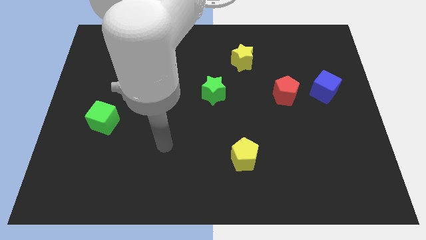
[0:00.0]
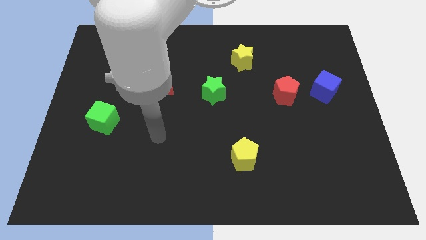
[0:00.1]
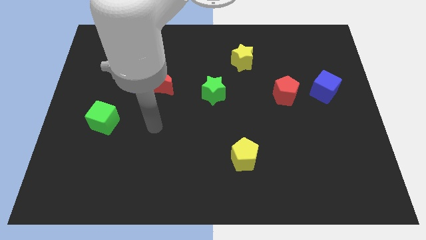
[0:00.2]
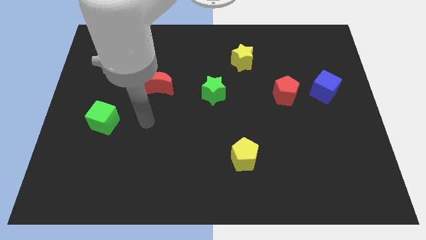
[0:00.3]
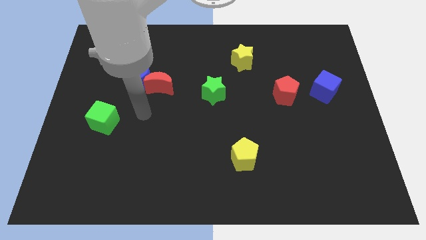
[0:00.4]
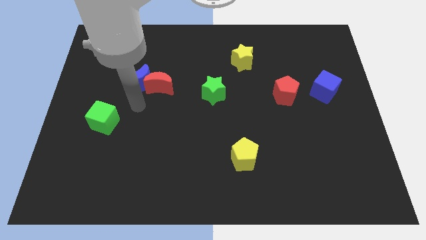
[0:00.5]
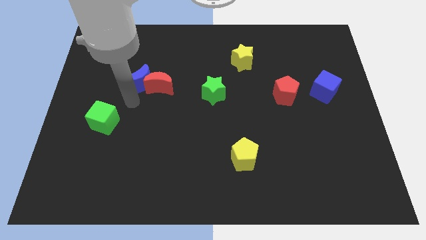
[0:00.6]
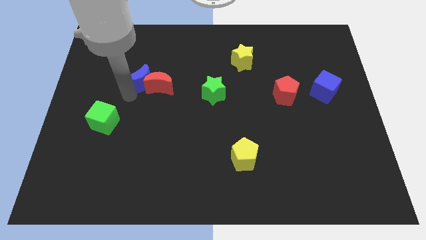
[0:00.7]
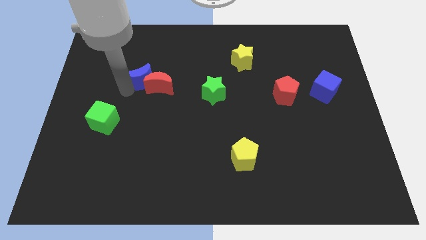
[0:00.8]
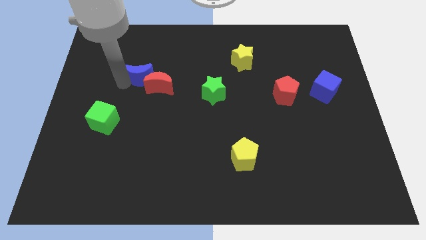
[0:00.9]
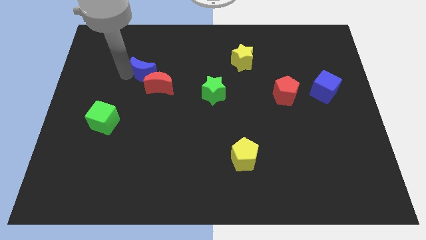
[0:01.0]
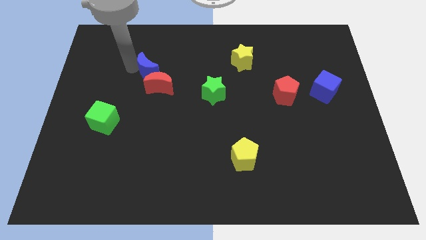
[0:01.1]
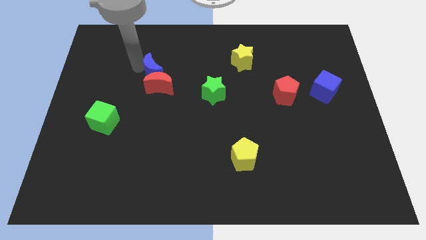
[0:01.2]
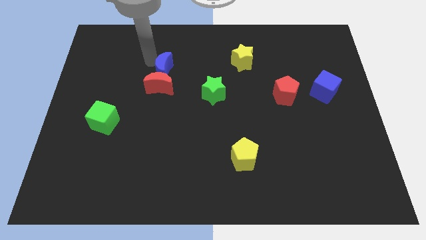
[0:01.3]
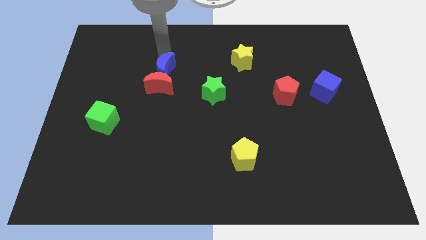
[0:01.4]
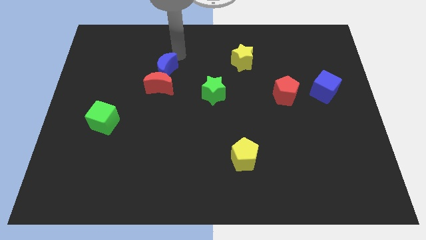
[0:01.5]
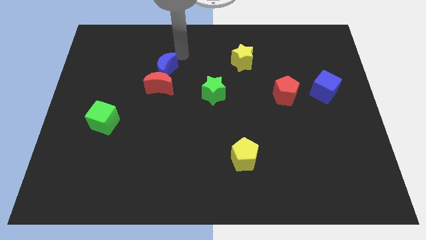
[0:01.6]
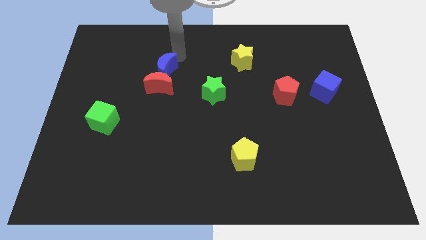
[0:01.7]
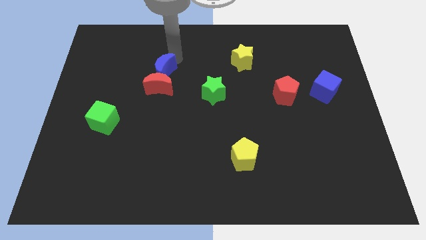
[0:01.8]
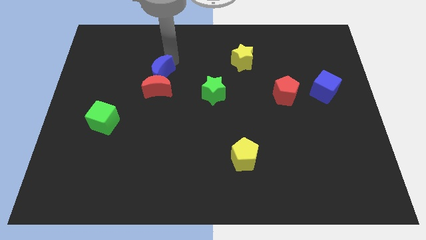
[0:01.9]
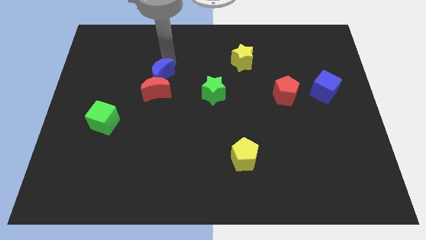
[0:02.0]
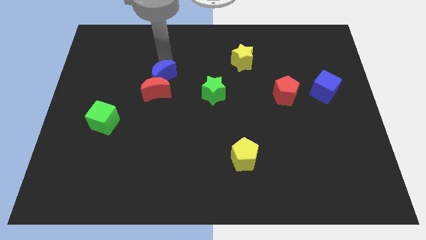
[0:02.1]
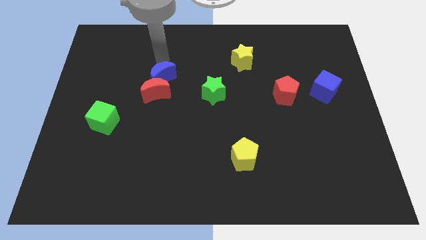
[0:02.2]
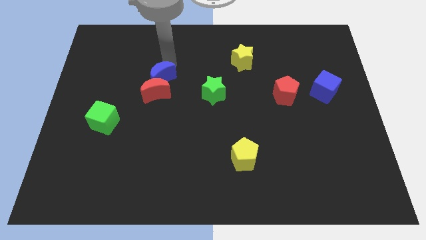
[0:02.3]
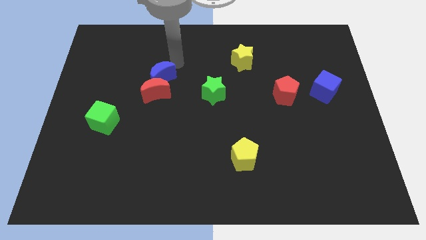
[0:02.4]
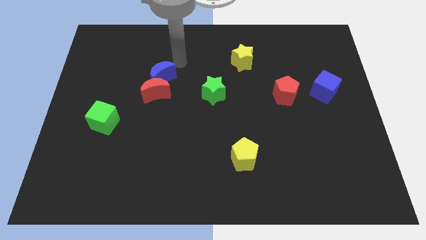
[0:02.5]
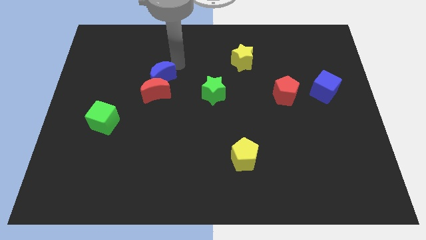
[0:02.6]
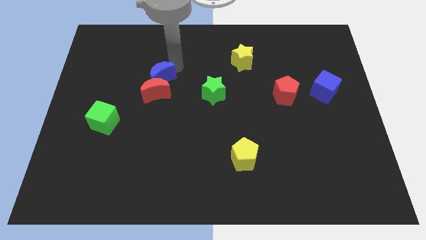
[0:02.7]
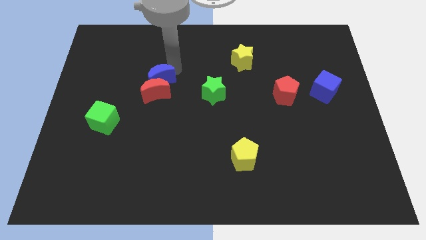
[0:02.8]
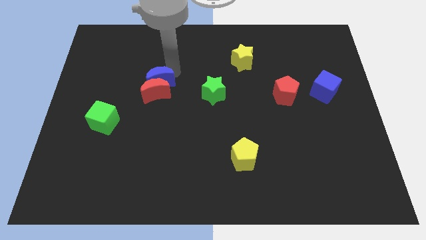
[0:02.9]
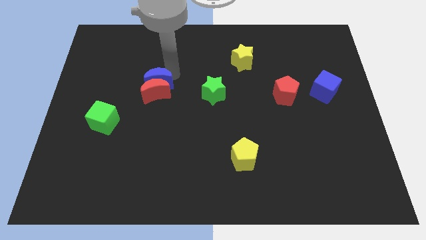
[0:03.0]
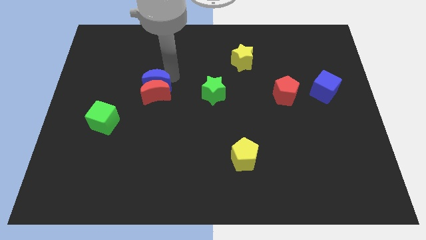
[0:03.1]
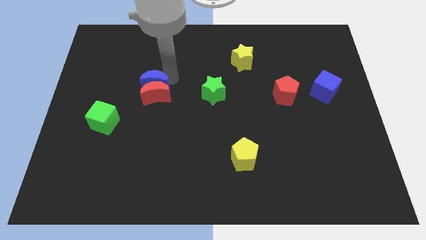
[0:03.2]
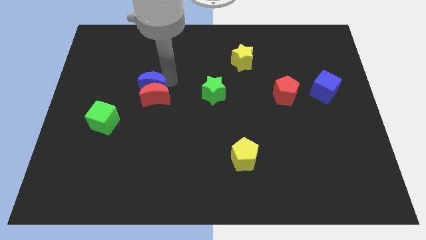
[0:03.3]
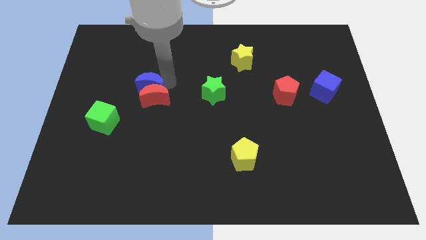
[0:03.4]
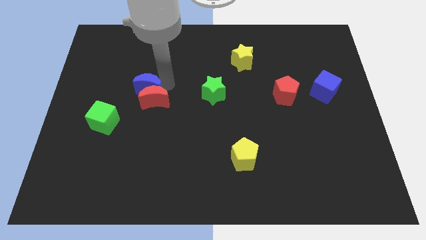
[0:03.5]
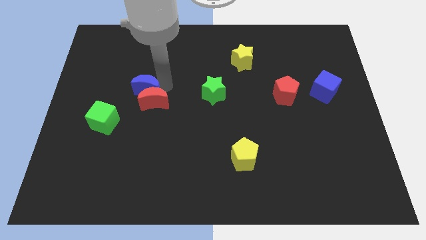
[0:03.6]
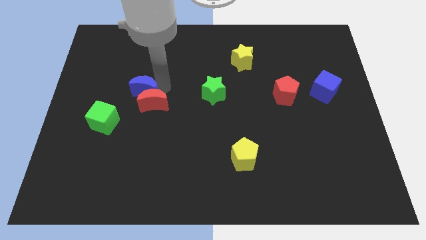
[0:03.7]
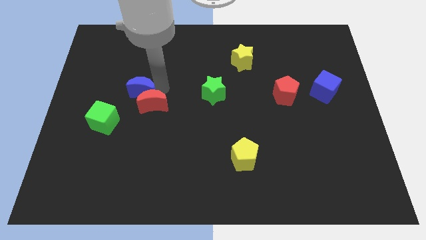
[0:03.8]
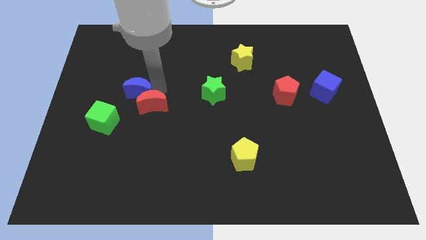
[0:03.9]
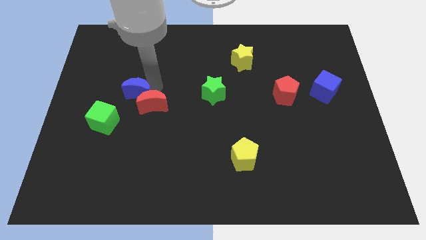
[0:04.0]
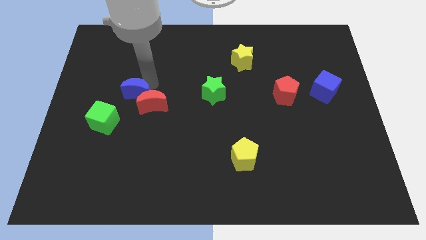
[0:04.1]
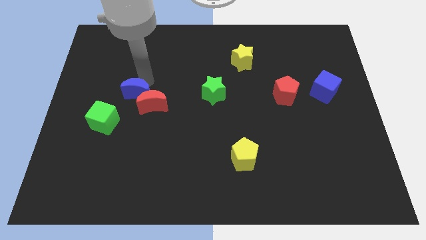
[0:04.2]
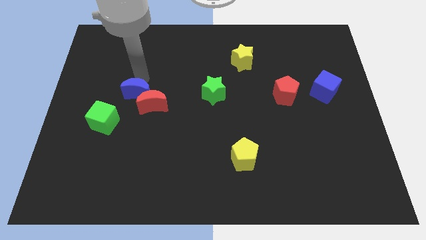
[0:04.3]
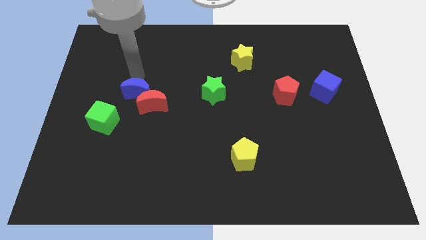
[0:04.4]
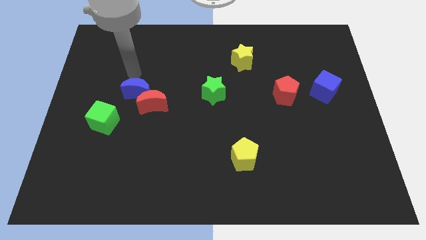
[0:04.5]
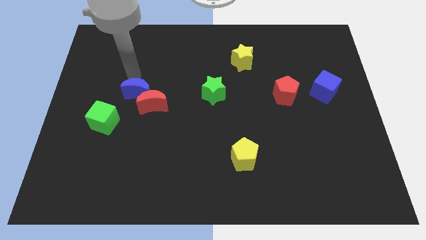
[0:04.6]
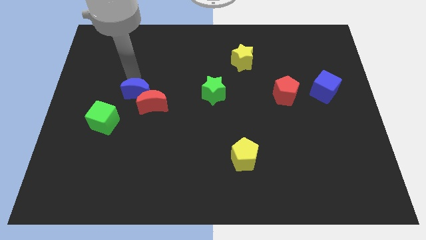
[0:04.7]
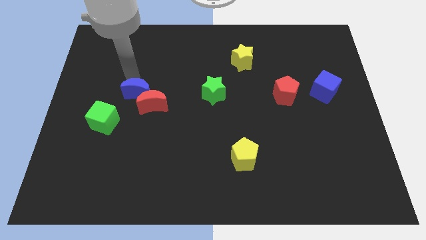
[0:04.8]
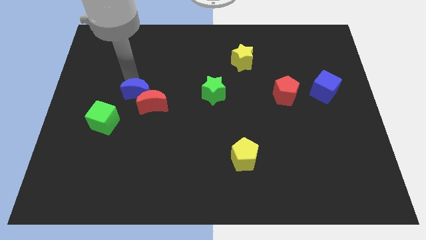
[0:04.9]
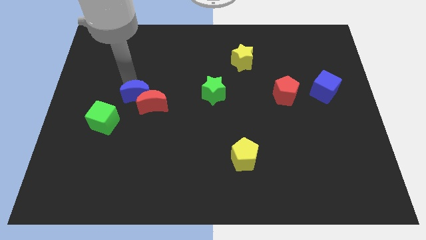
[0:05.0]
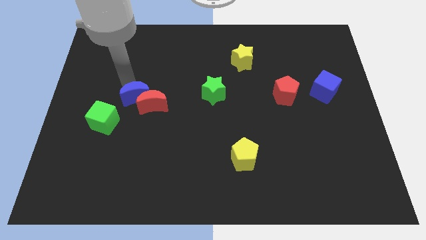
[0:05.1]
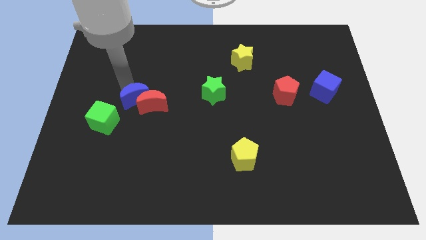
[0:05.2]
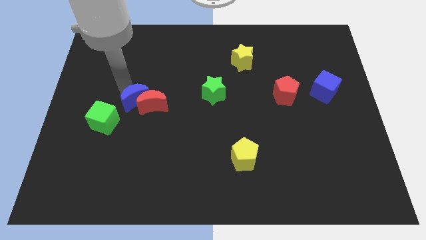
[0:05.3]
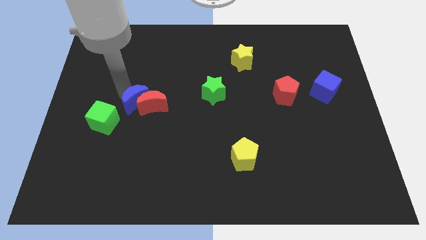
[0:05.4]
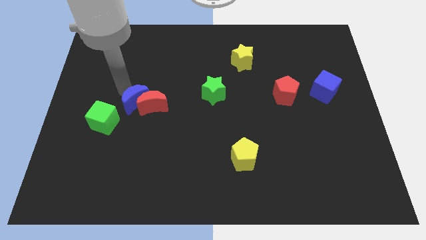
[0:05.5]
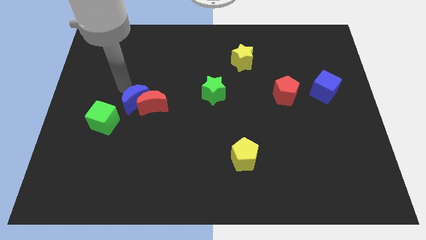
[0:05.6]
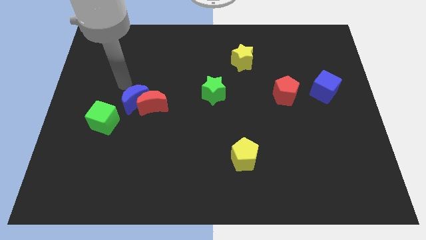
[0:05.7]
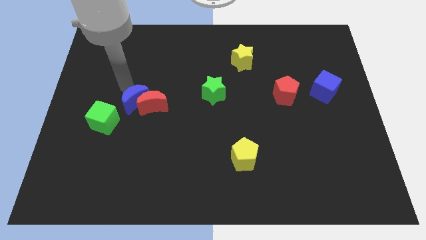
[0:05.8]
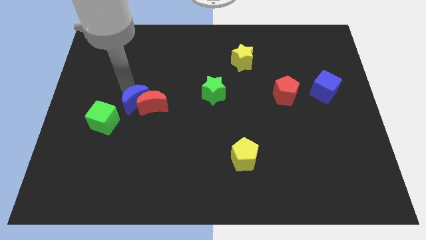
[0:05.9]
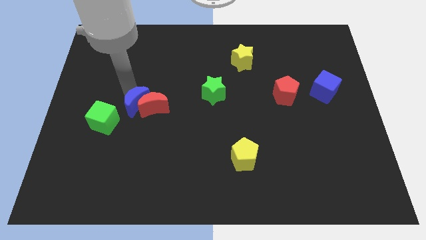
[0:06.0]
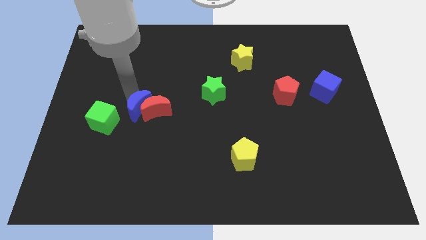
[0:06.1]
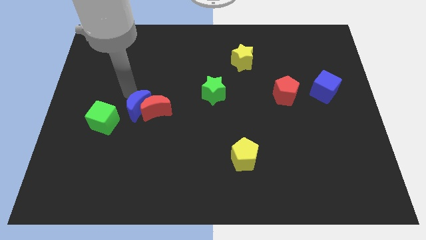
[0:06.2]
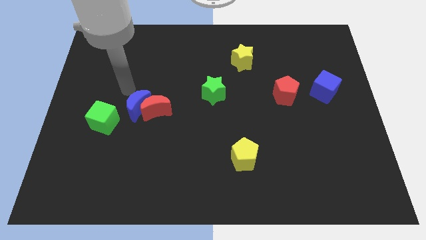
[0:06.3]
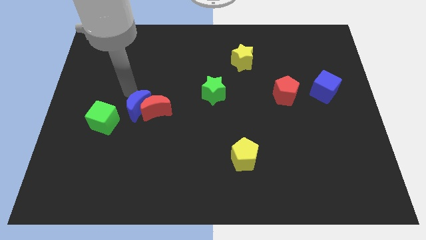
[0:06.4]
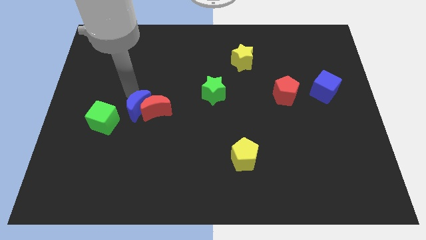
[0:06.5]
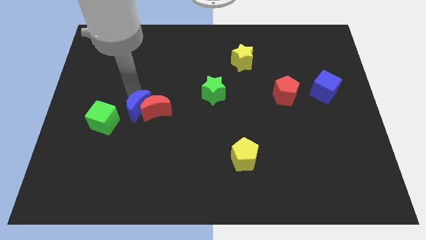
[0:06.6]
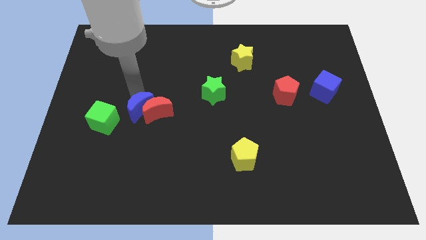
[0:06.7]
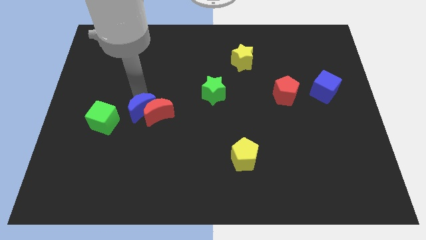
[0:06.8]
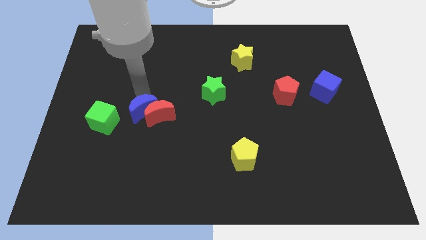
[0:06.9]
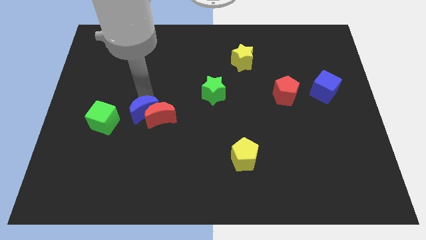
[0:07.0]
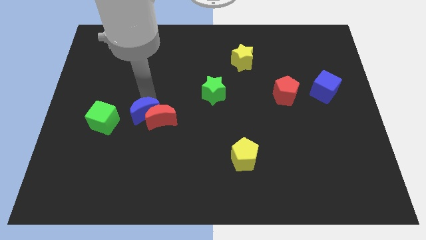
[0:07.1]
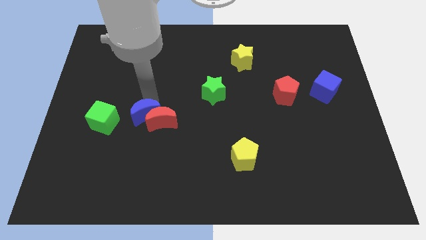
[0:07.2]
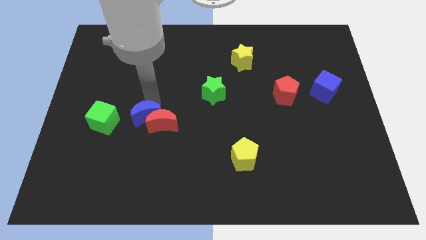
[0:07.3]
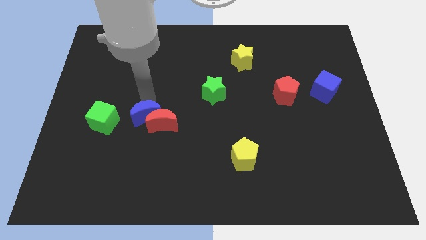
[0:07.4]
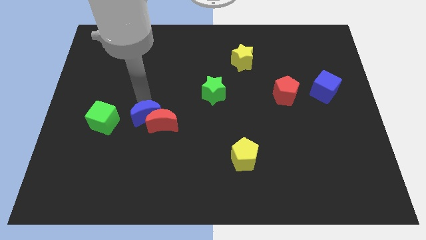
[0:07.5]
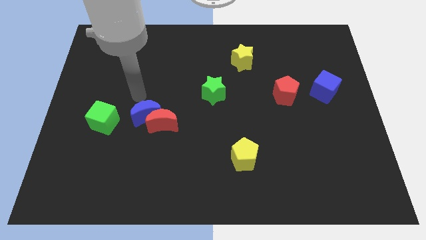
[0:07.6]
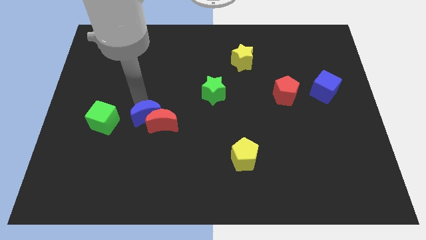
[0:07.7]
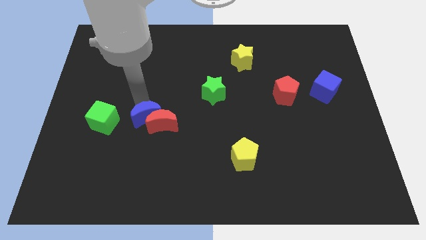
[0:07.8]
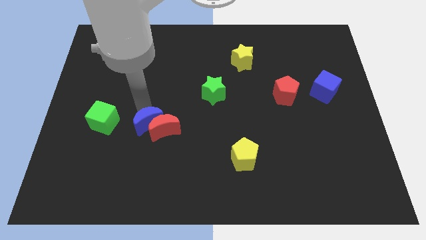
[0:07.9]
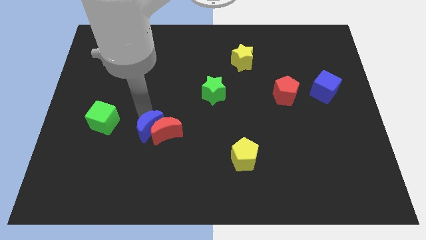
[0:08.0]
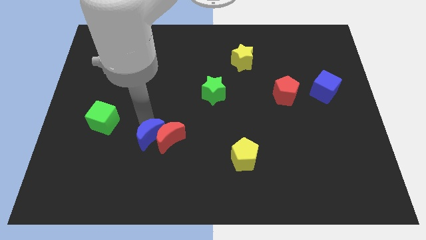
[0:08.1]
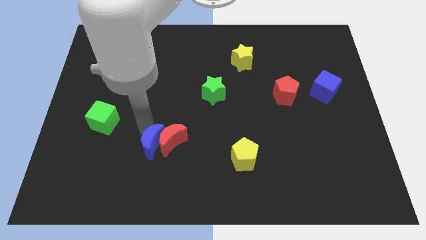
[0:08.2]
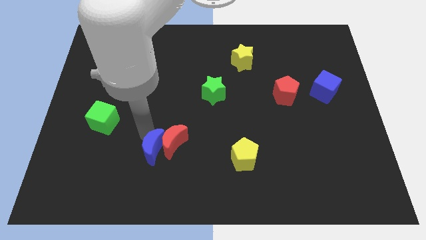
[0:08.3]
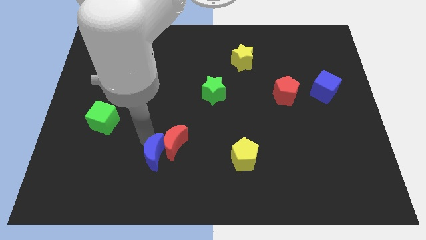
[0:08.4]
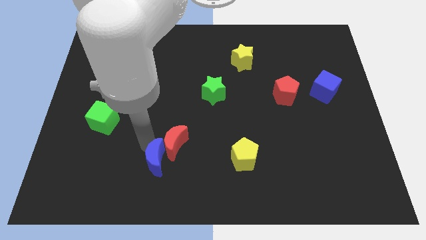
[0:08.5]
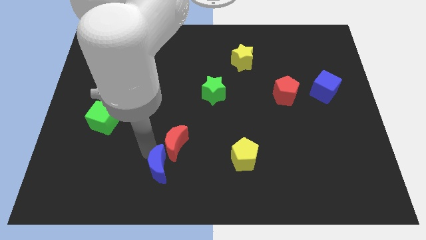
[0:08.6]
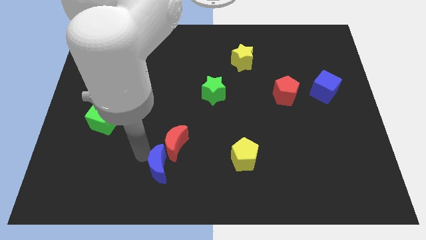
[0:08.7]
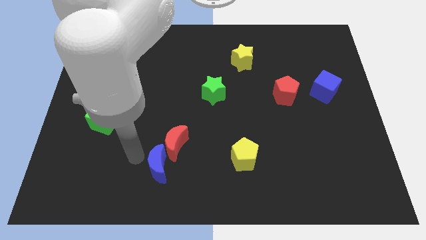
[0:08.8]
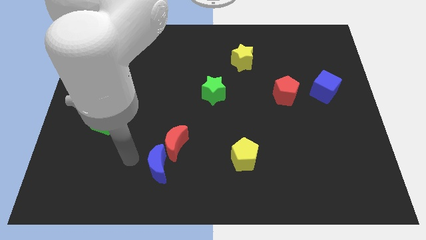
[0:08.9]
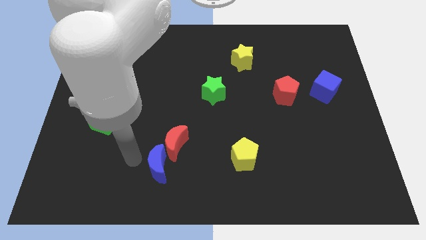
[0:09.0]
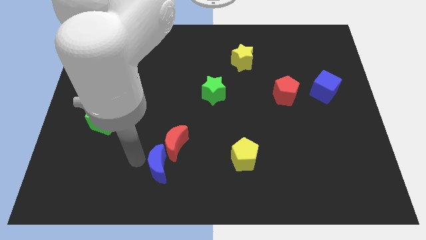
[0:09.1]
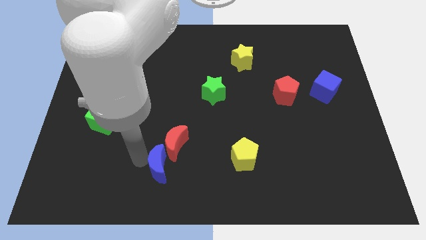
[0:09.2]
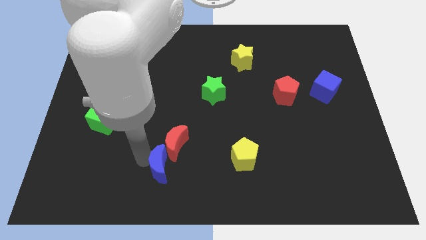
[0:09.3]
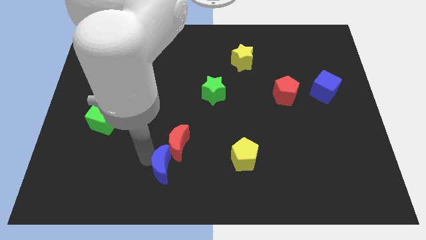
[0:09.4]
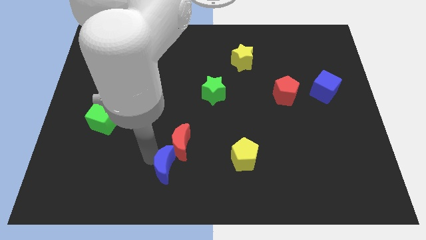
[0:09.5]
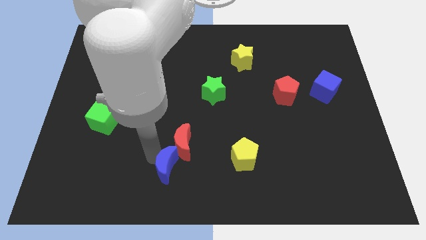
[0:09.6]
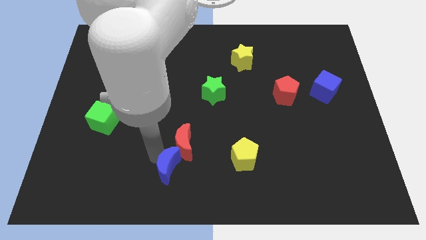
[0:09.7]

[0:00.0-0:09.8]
push the blue moon to the bottom
